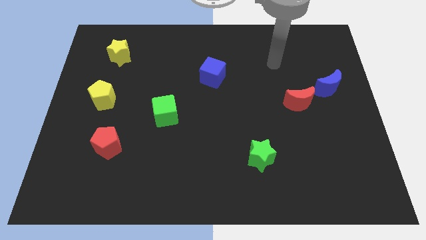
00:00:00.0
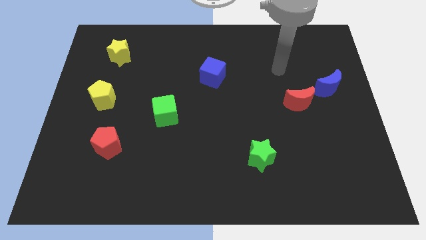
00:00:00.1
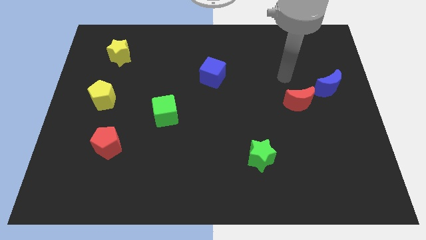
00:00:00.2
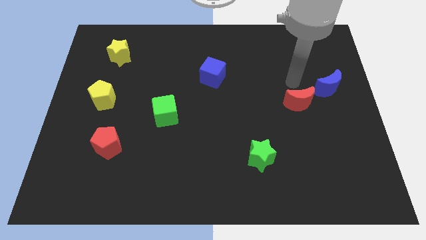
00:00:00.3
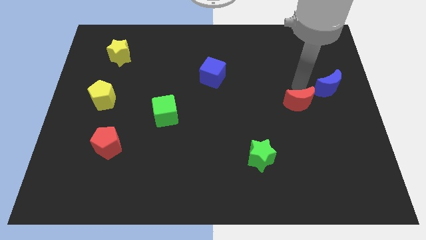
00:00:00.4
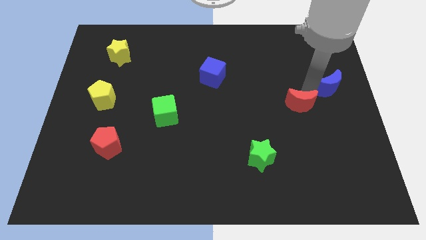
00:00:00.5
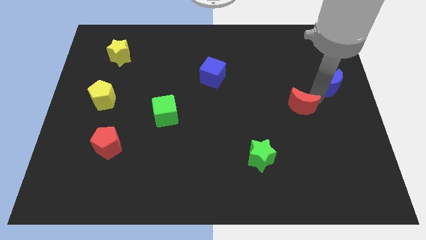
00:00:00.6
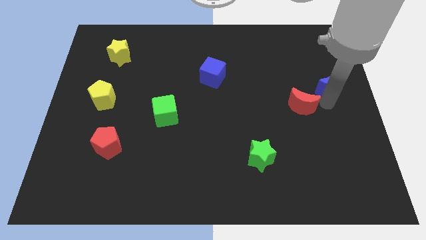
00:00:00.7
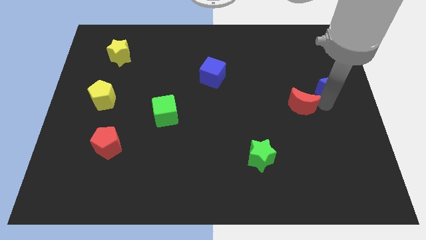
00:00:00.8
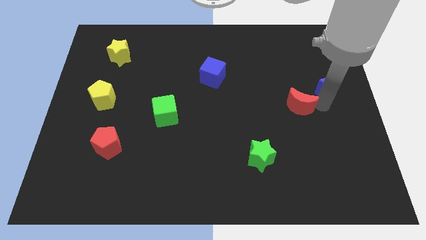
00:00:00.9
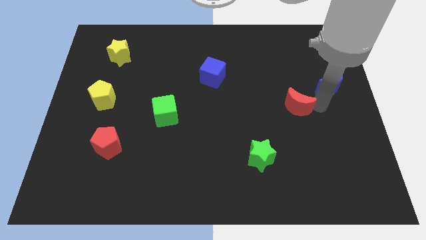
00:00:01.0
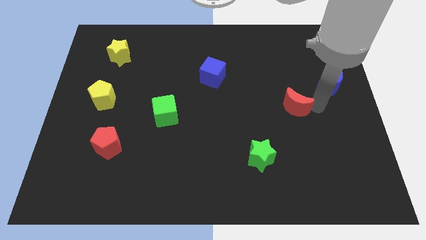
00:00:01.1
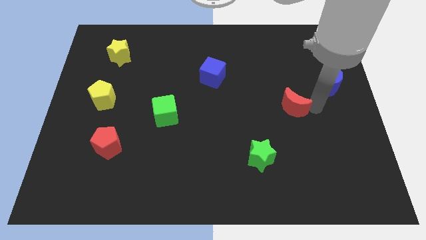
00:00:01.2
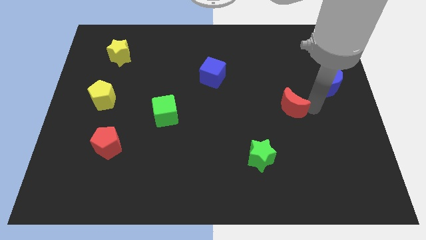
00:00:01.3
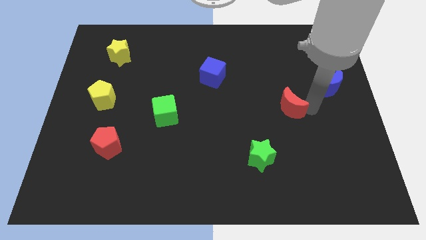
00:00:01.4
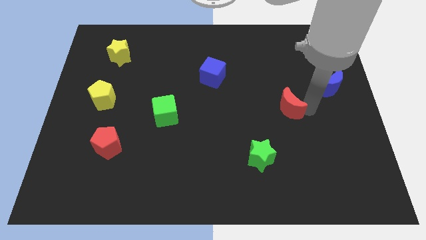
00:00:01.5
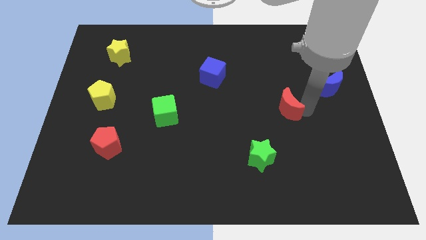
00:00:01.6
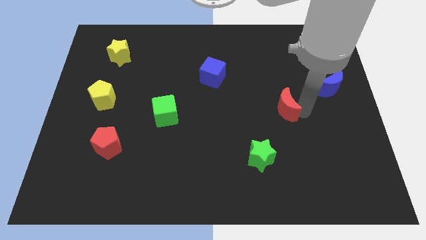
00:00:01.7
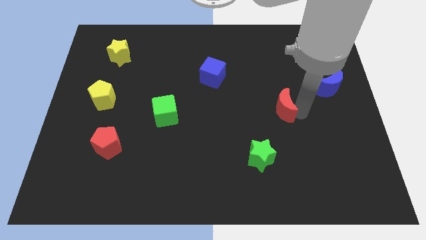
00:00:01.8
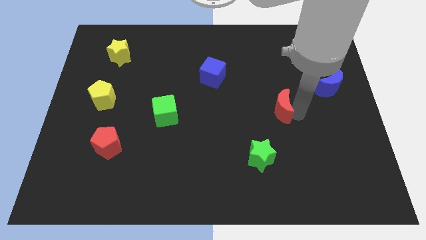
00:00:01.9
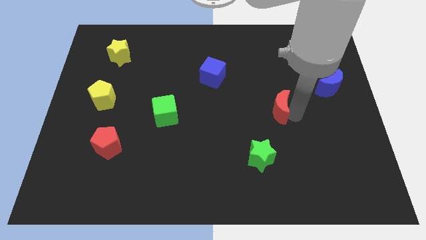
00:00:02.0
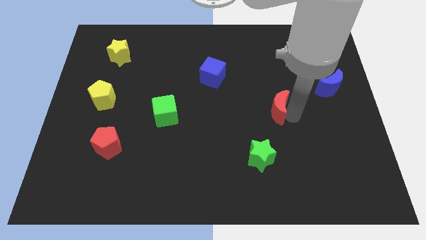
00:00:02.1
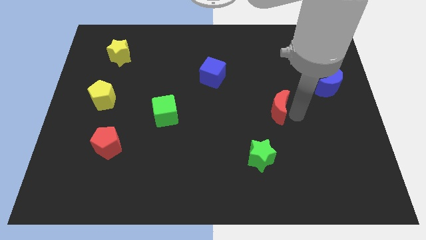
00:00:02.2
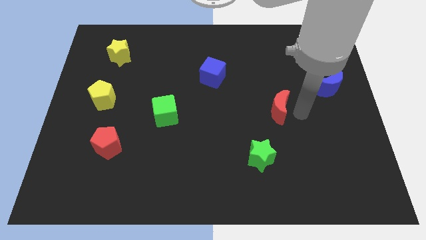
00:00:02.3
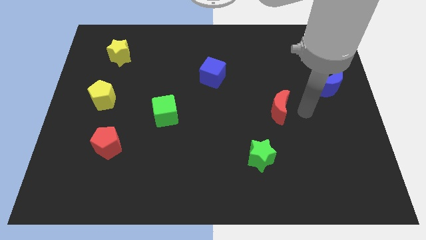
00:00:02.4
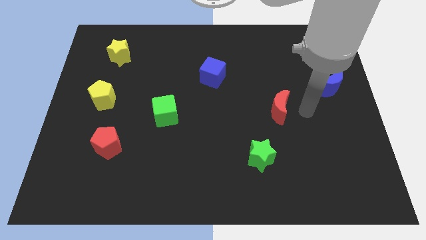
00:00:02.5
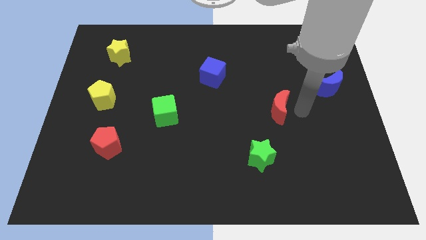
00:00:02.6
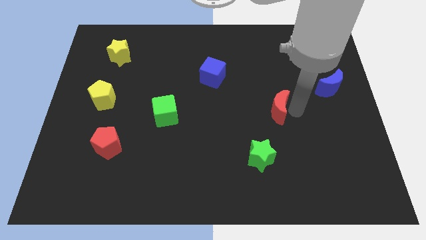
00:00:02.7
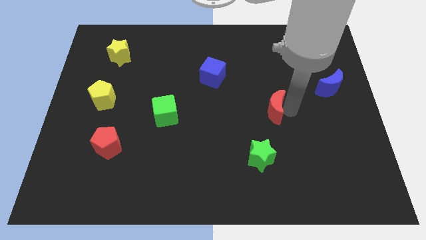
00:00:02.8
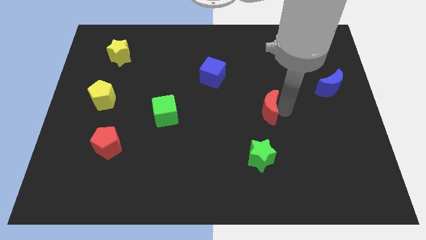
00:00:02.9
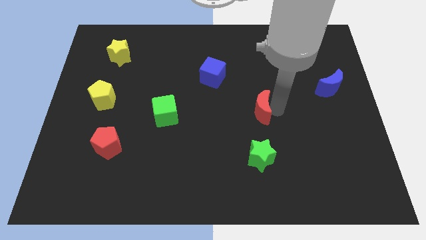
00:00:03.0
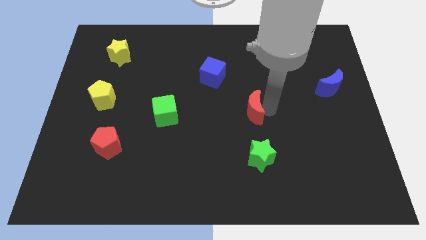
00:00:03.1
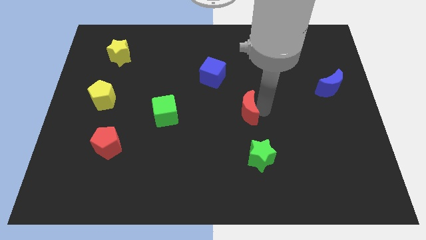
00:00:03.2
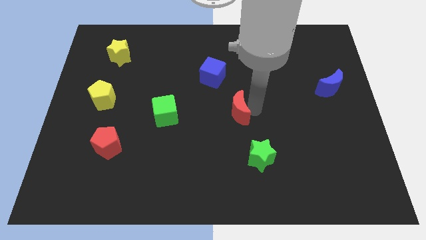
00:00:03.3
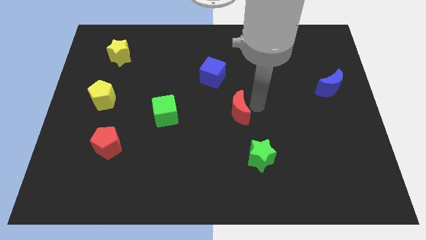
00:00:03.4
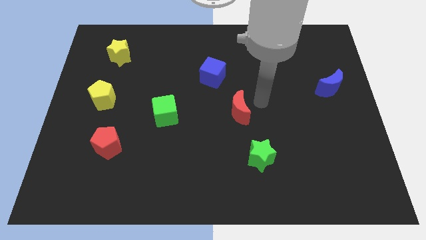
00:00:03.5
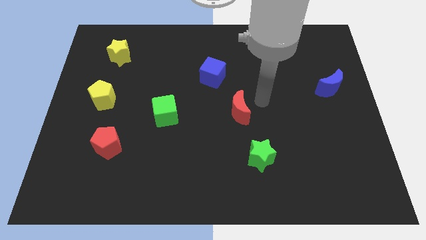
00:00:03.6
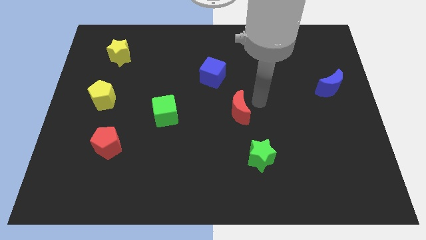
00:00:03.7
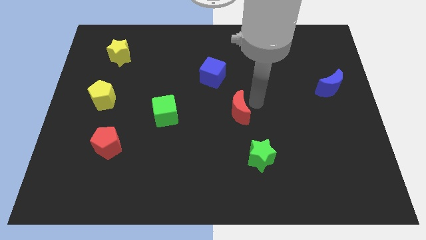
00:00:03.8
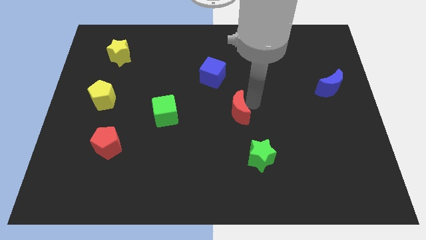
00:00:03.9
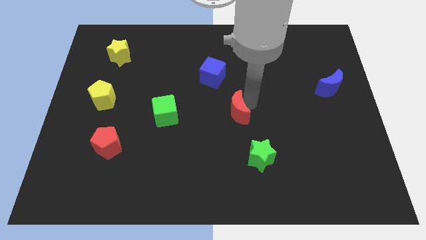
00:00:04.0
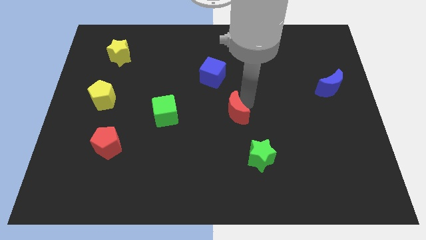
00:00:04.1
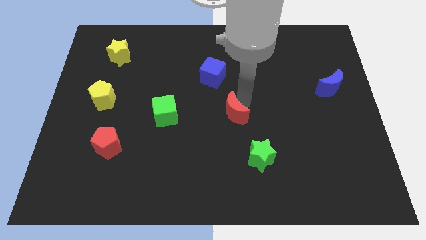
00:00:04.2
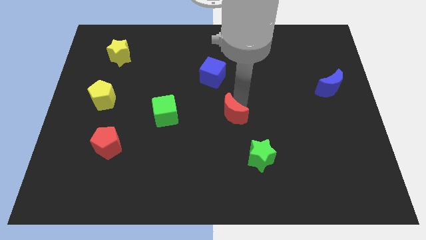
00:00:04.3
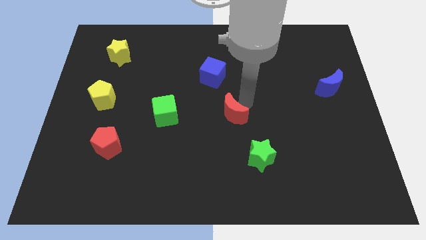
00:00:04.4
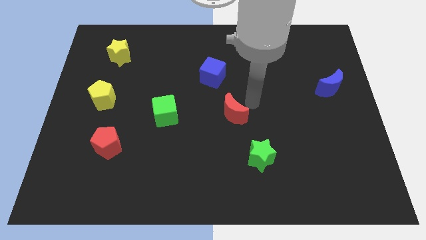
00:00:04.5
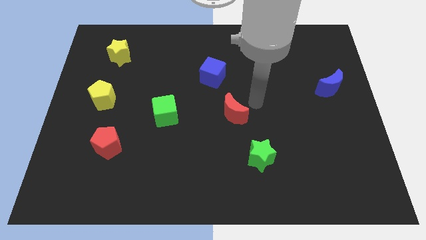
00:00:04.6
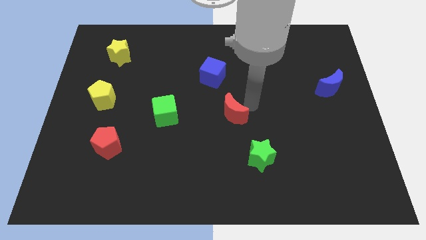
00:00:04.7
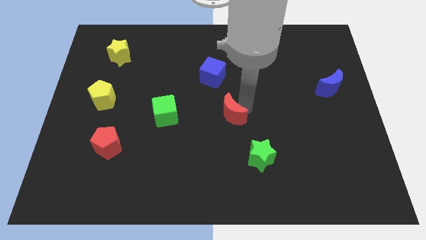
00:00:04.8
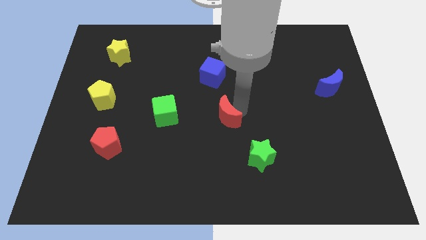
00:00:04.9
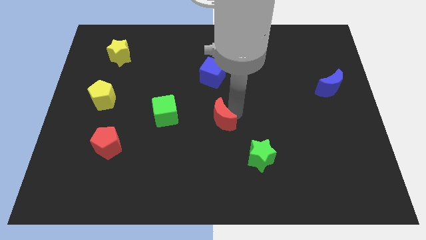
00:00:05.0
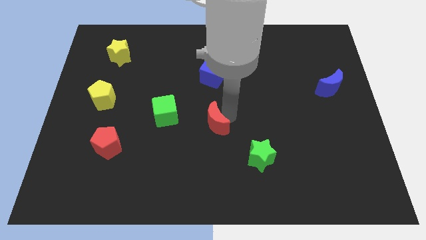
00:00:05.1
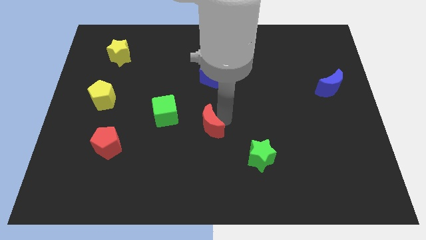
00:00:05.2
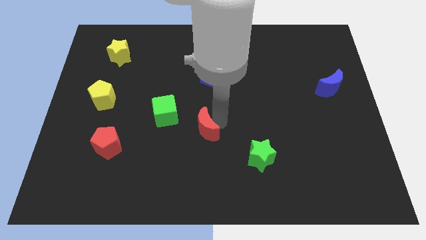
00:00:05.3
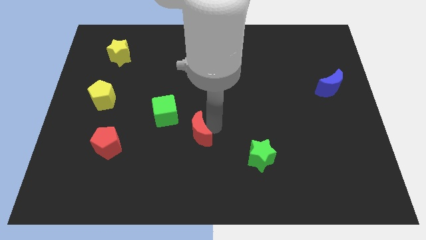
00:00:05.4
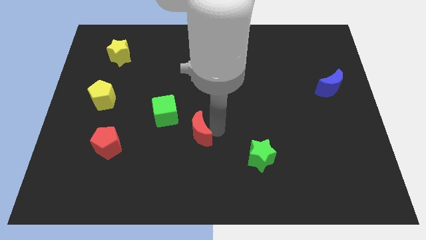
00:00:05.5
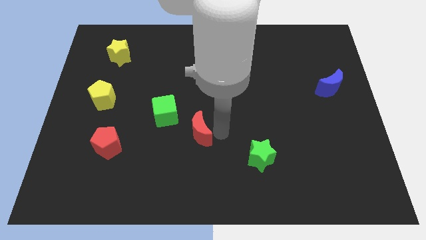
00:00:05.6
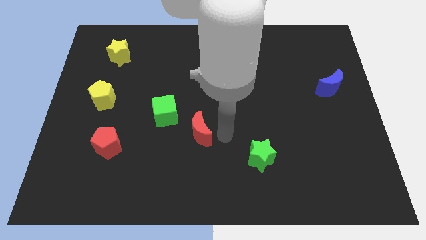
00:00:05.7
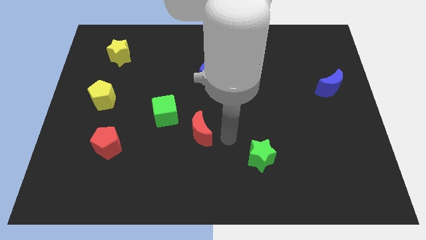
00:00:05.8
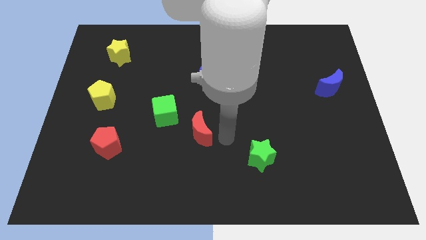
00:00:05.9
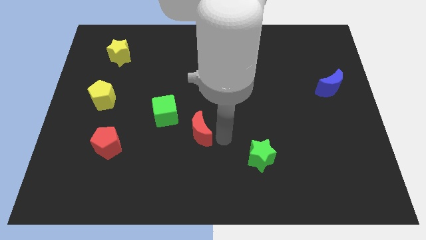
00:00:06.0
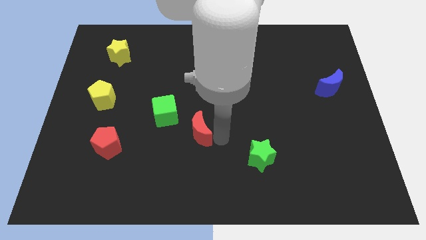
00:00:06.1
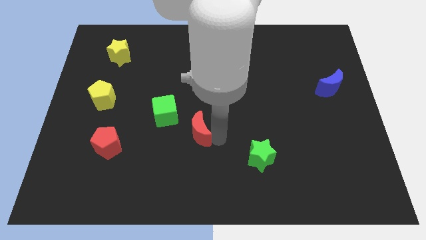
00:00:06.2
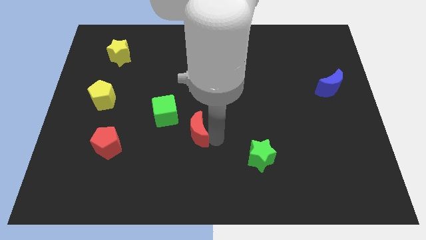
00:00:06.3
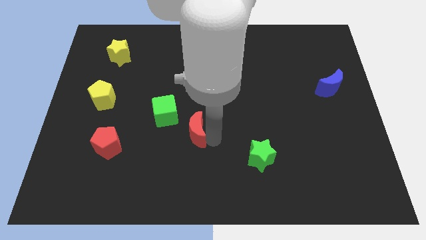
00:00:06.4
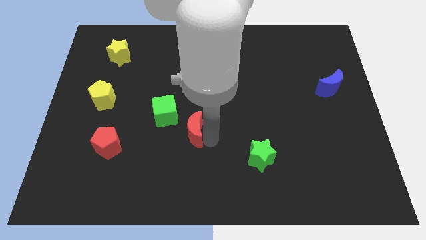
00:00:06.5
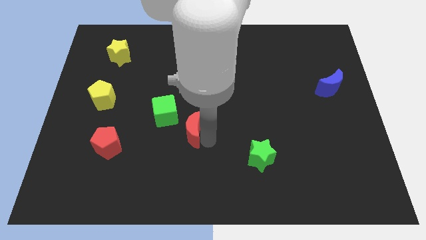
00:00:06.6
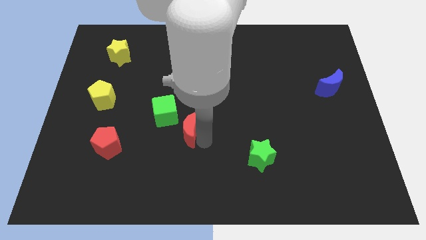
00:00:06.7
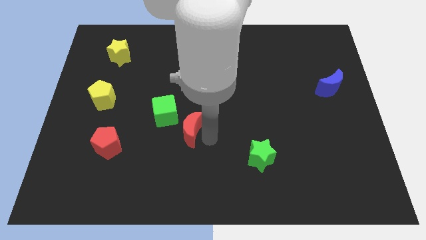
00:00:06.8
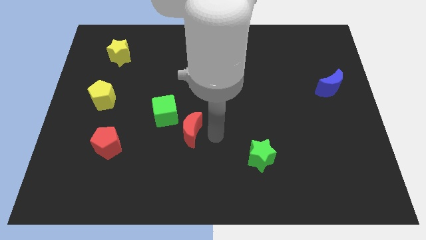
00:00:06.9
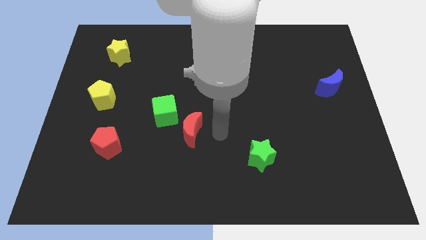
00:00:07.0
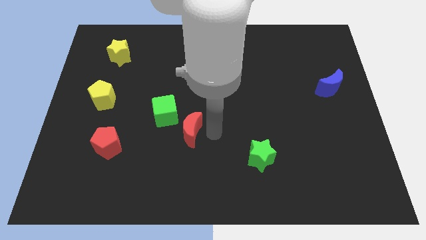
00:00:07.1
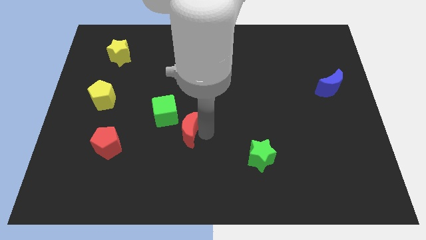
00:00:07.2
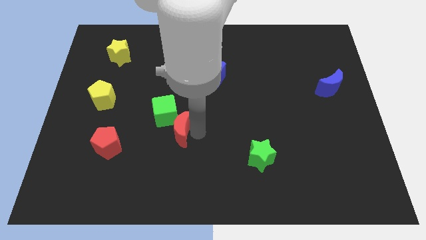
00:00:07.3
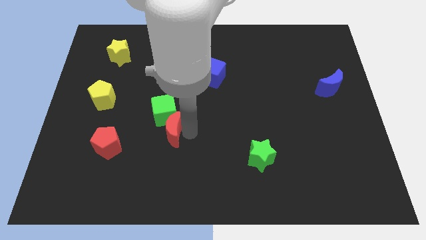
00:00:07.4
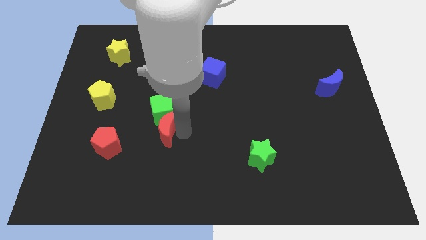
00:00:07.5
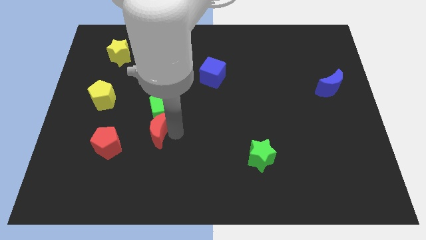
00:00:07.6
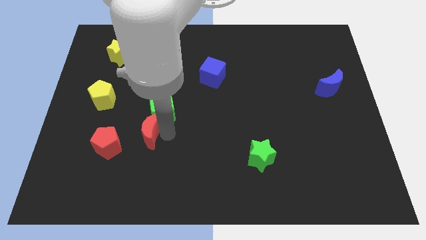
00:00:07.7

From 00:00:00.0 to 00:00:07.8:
slide the red moon diagonally up and to the right of the red pentagon

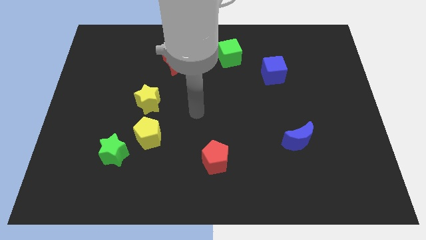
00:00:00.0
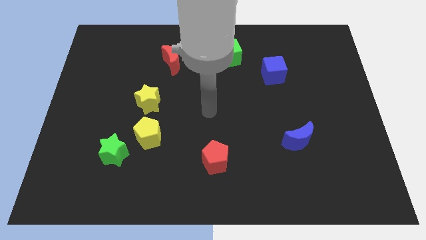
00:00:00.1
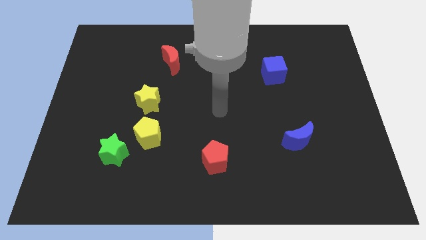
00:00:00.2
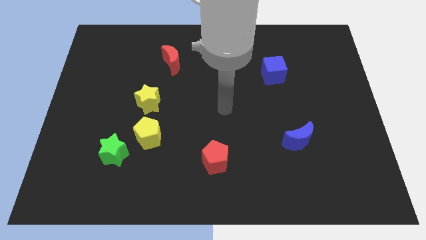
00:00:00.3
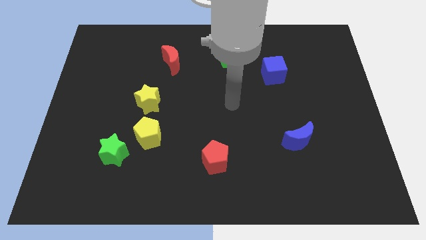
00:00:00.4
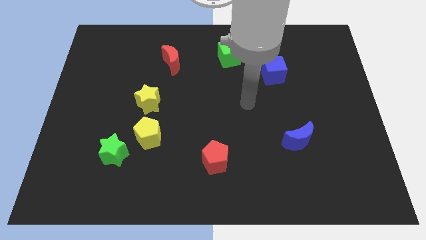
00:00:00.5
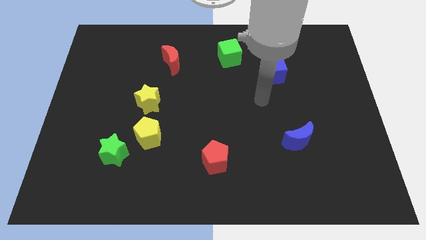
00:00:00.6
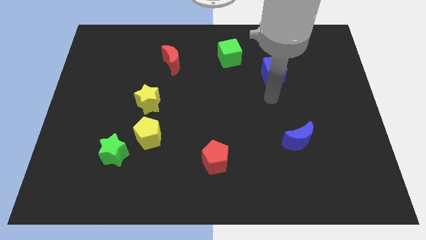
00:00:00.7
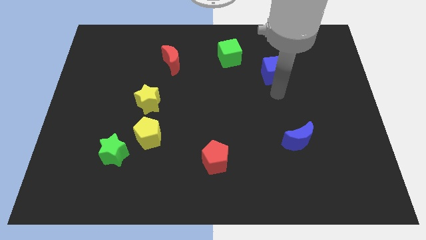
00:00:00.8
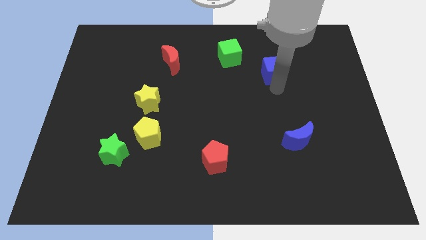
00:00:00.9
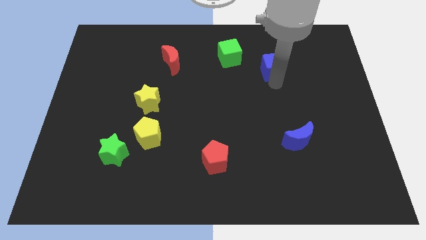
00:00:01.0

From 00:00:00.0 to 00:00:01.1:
move the blue cube to the right of the green cube
